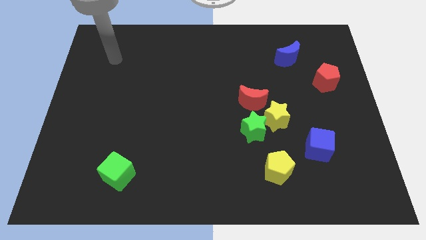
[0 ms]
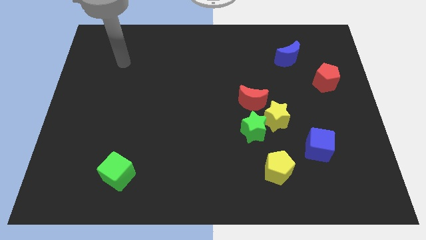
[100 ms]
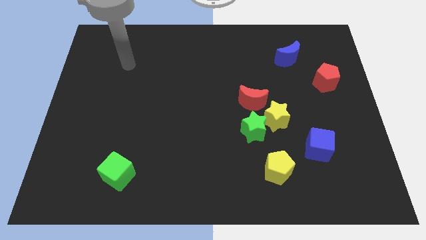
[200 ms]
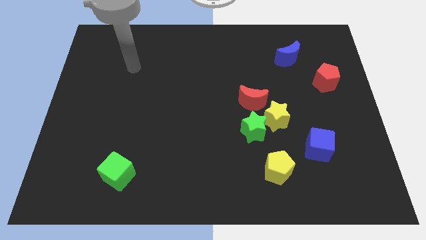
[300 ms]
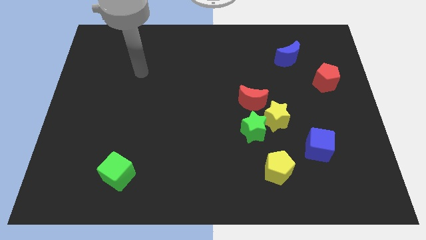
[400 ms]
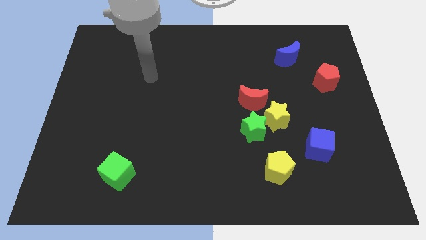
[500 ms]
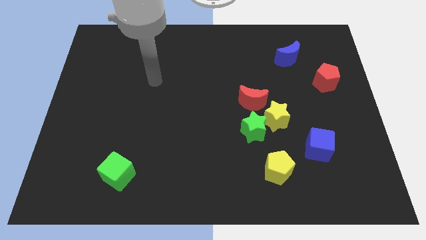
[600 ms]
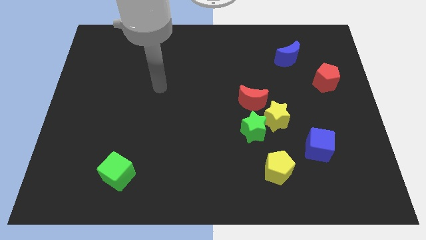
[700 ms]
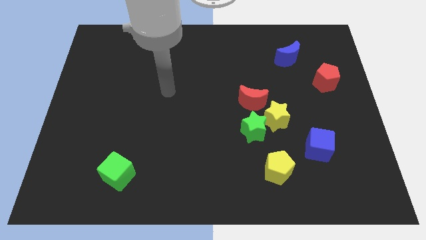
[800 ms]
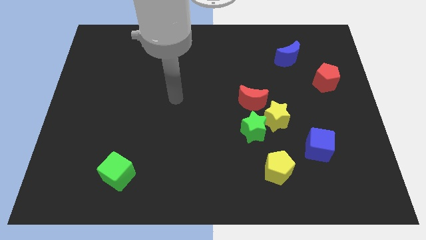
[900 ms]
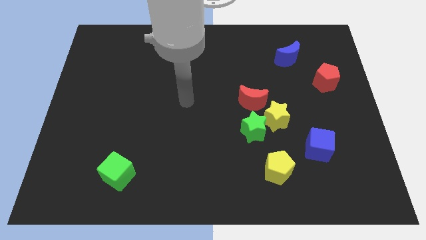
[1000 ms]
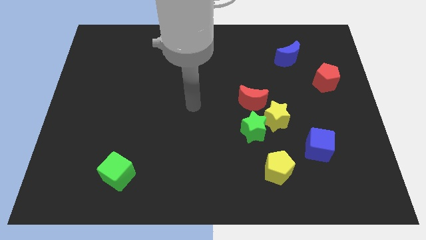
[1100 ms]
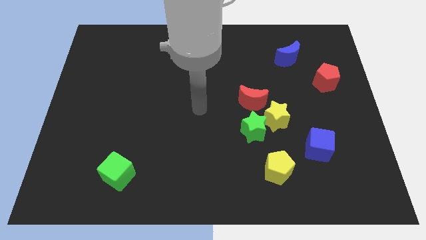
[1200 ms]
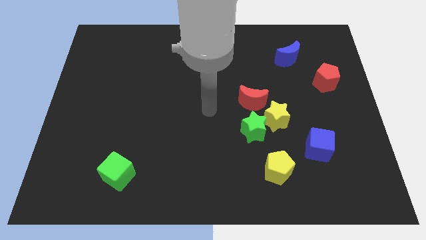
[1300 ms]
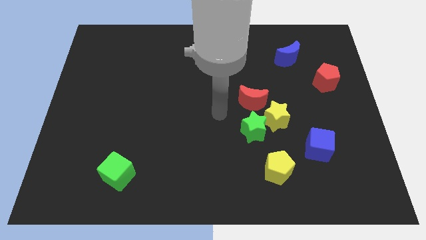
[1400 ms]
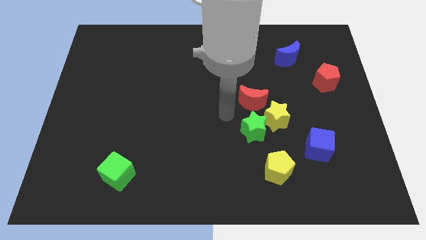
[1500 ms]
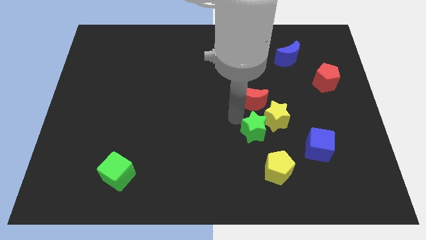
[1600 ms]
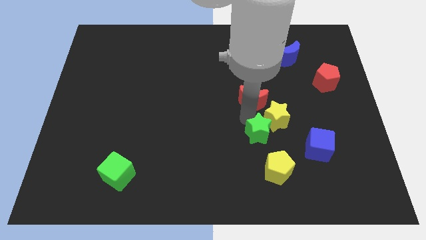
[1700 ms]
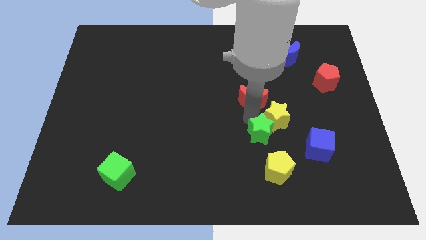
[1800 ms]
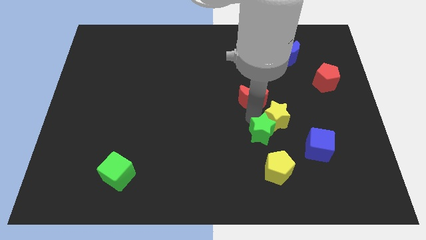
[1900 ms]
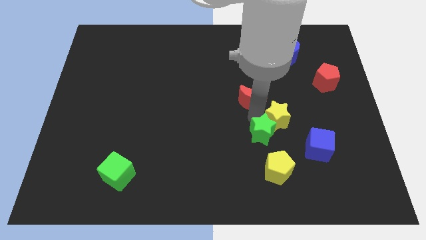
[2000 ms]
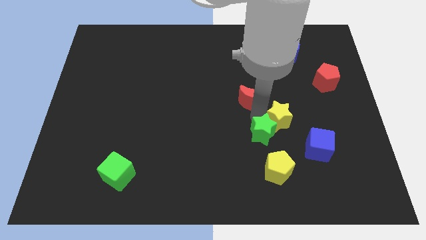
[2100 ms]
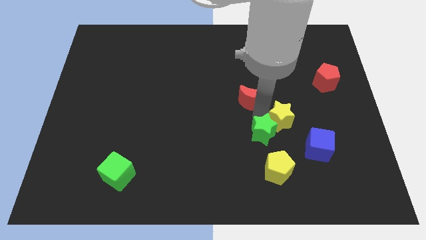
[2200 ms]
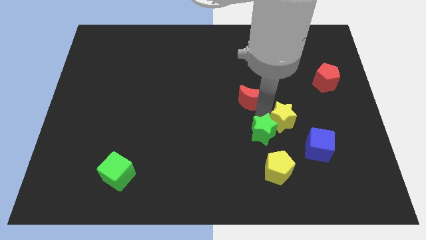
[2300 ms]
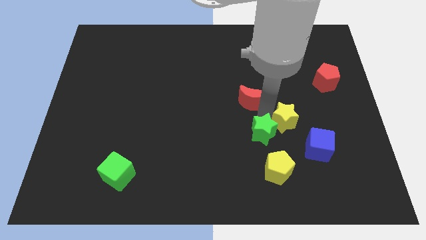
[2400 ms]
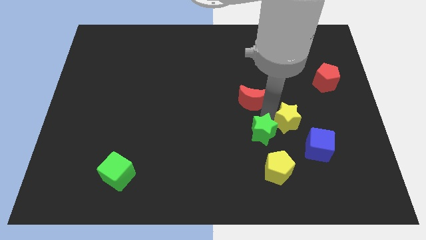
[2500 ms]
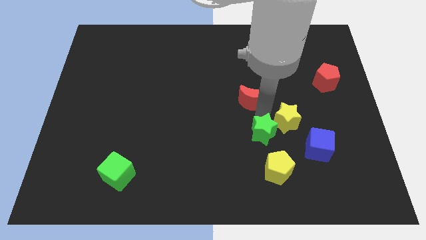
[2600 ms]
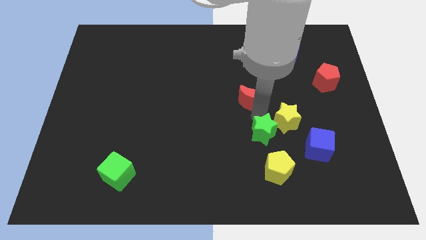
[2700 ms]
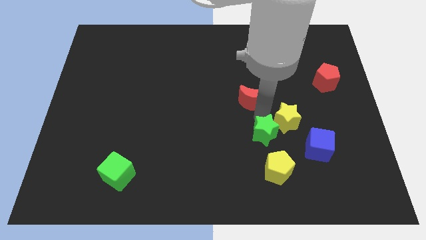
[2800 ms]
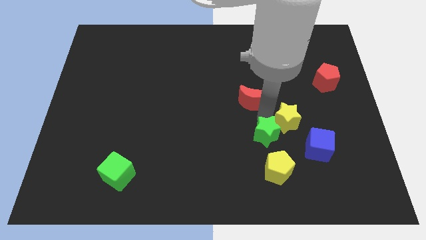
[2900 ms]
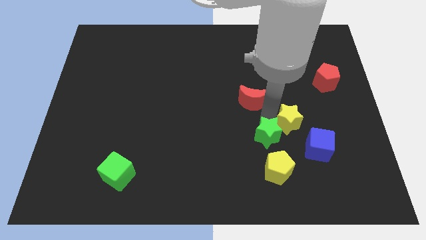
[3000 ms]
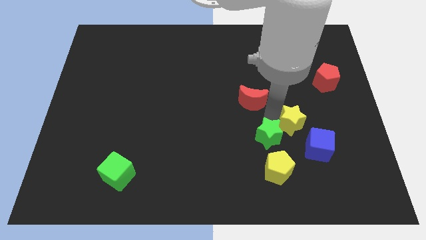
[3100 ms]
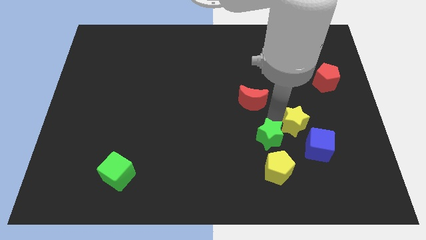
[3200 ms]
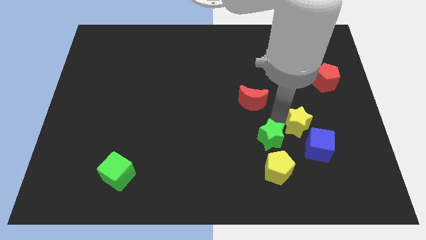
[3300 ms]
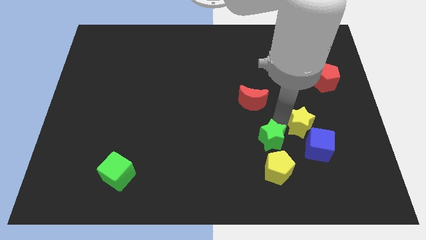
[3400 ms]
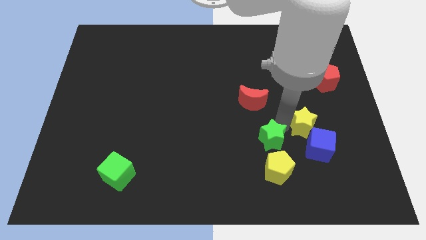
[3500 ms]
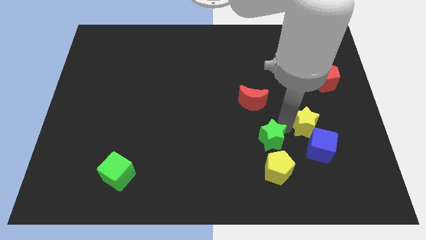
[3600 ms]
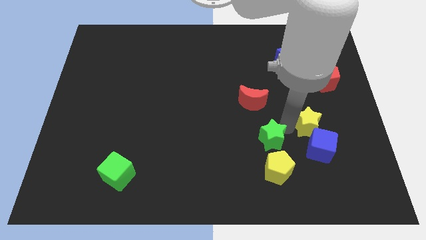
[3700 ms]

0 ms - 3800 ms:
separate the yellow star from the green star and red moon

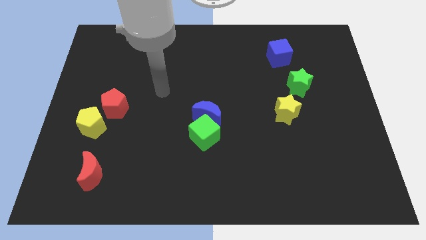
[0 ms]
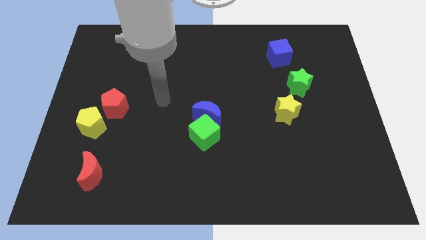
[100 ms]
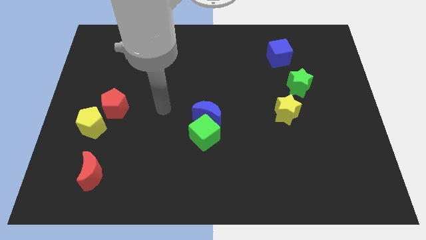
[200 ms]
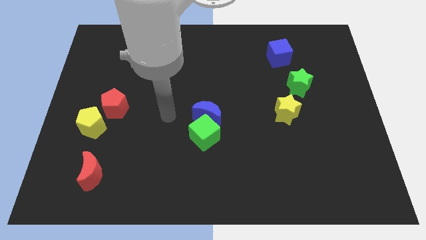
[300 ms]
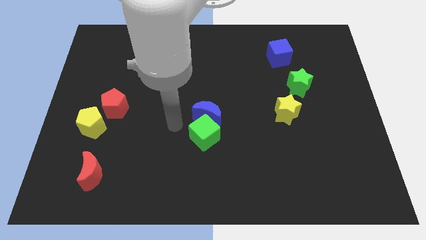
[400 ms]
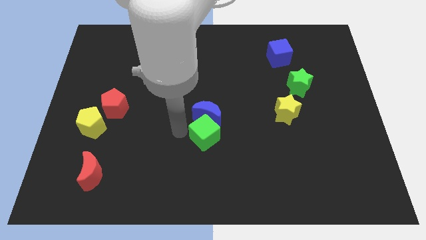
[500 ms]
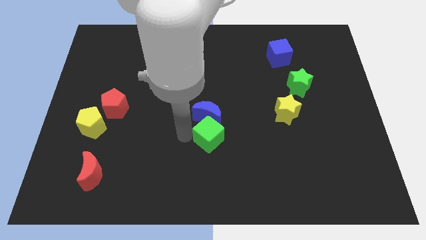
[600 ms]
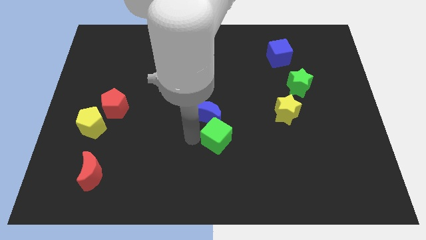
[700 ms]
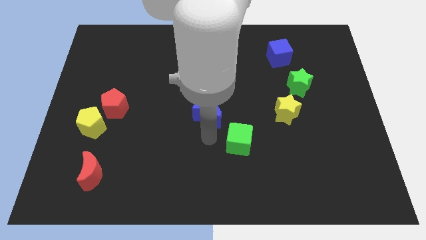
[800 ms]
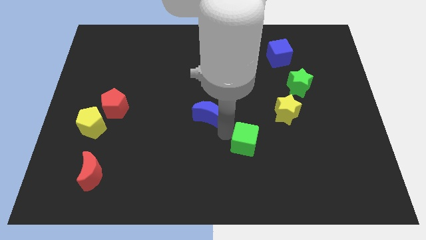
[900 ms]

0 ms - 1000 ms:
move the blue moon away from the green cube

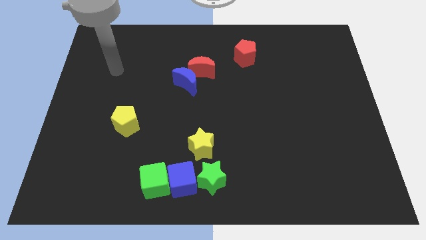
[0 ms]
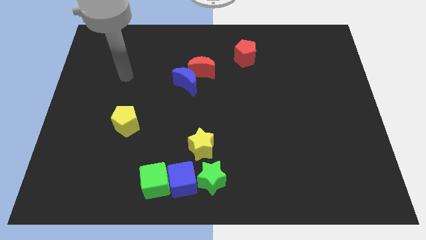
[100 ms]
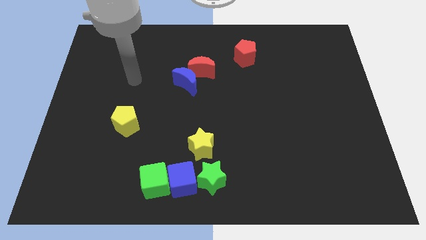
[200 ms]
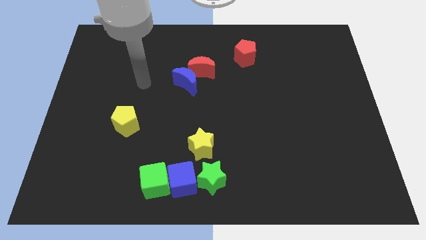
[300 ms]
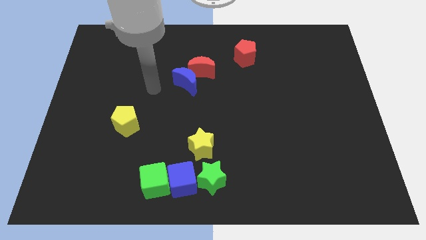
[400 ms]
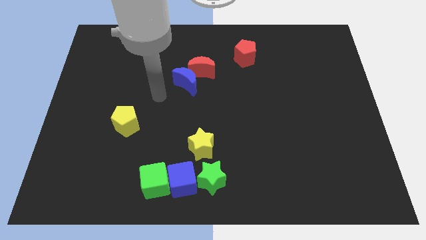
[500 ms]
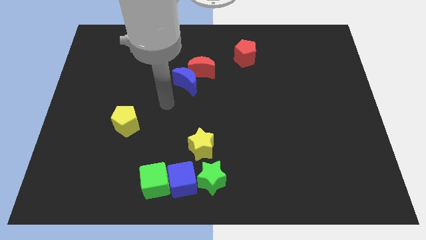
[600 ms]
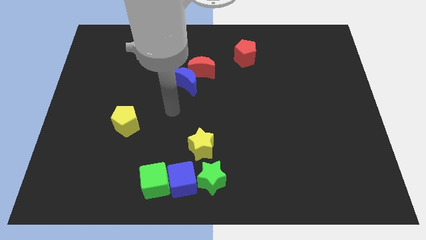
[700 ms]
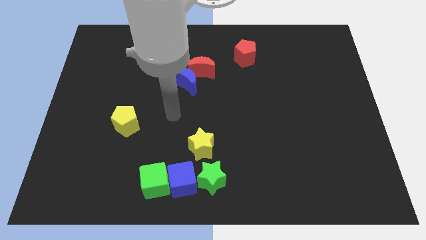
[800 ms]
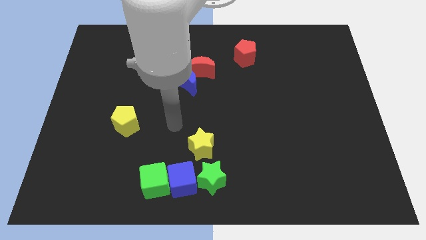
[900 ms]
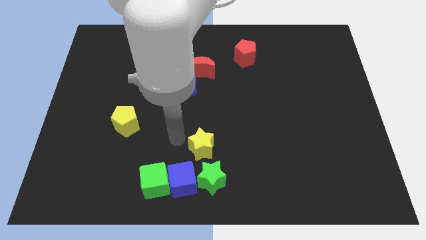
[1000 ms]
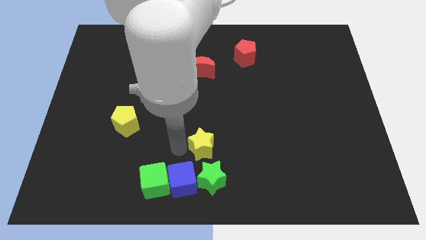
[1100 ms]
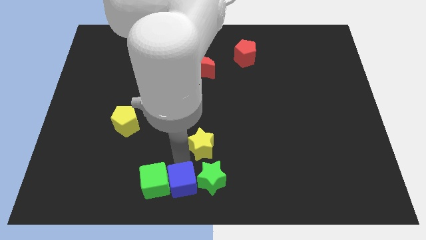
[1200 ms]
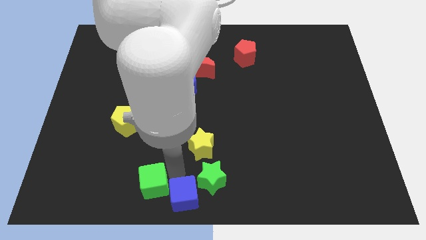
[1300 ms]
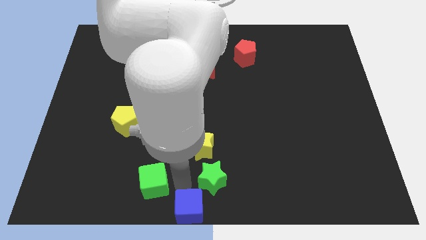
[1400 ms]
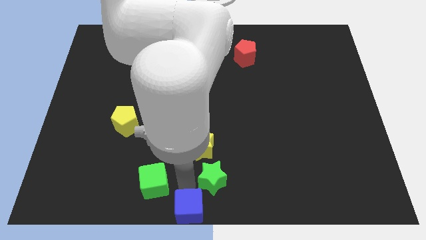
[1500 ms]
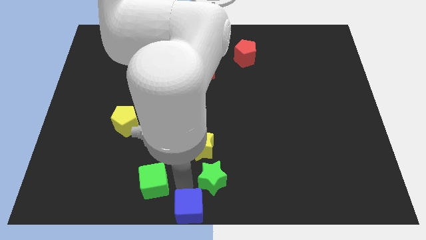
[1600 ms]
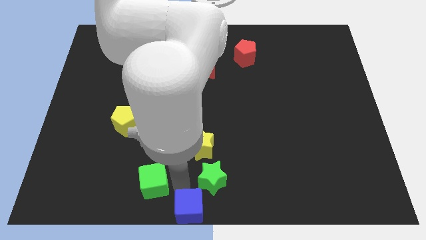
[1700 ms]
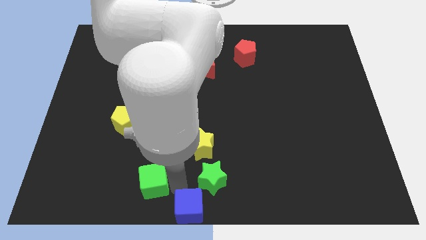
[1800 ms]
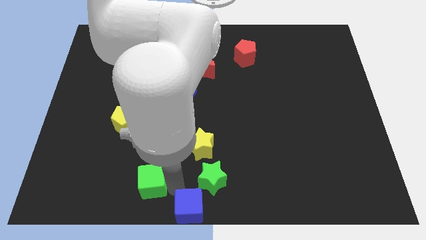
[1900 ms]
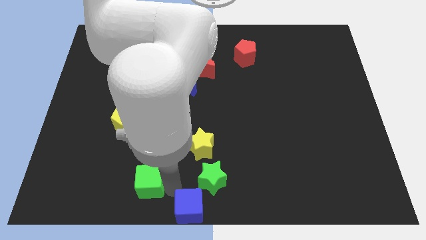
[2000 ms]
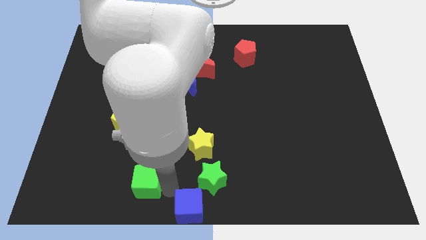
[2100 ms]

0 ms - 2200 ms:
move the green cube away from the blue cube

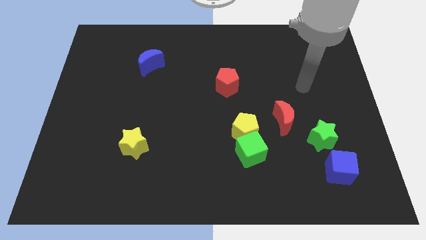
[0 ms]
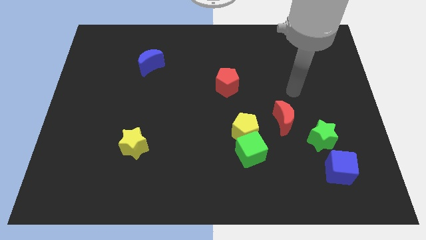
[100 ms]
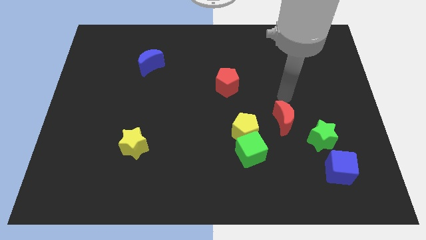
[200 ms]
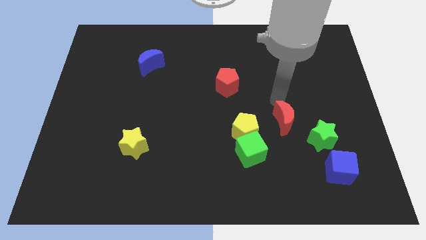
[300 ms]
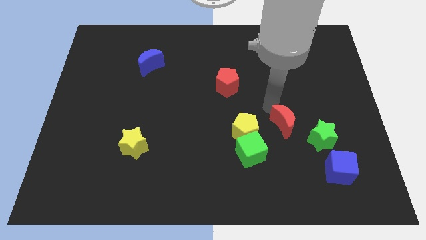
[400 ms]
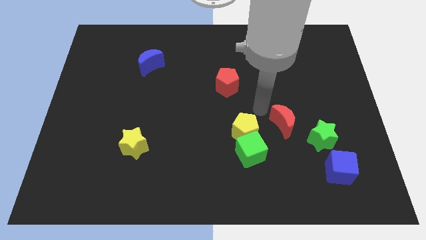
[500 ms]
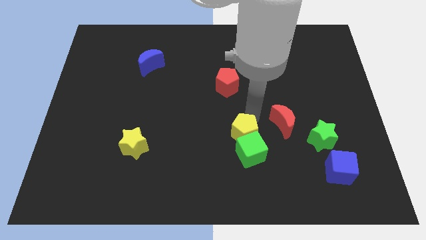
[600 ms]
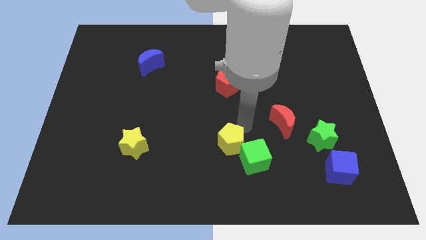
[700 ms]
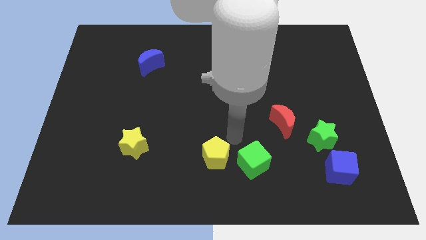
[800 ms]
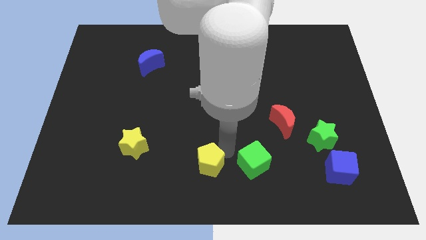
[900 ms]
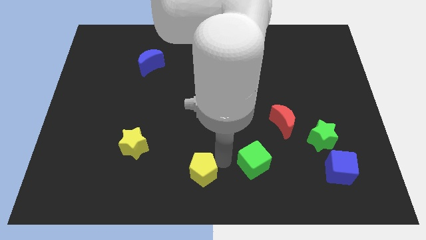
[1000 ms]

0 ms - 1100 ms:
move the green cube away from the yellow pentagon

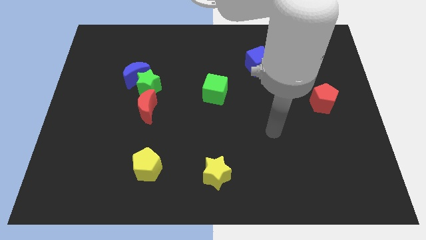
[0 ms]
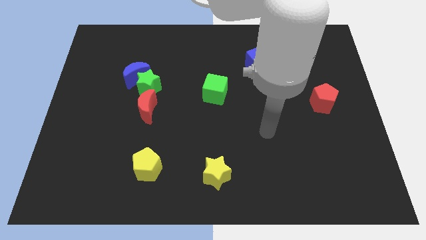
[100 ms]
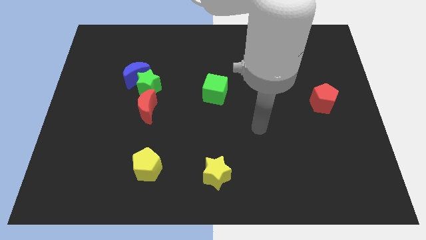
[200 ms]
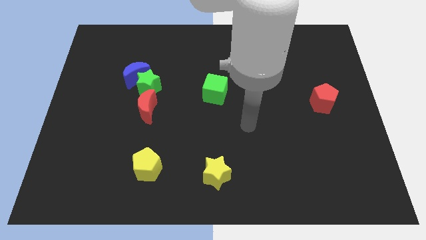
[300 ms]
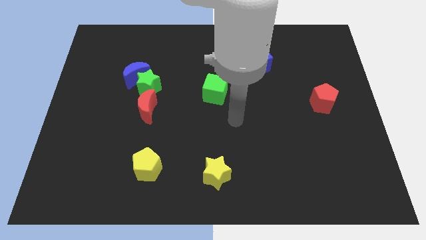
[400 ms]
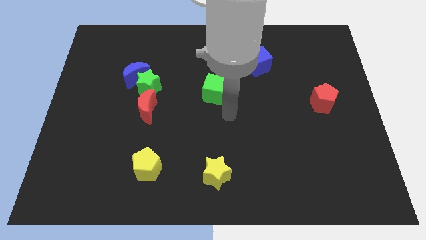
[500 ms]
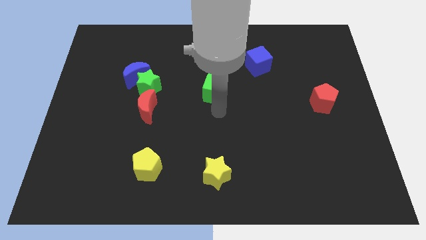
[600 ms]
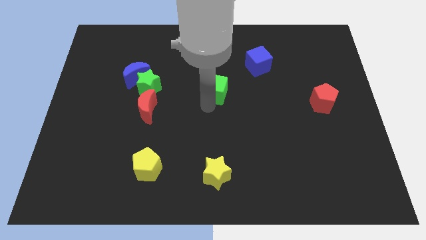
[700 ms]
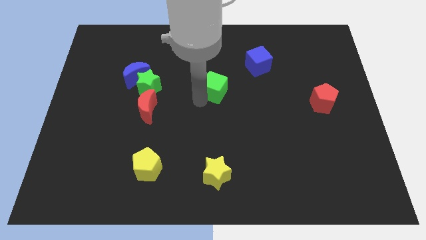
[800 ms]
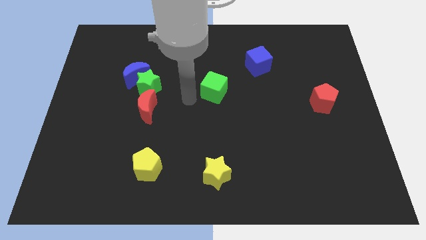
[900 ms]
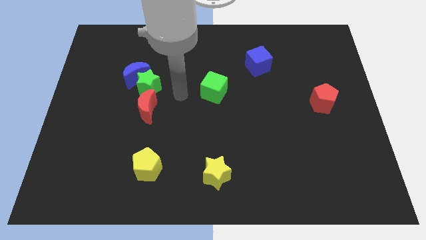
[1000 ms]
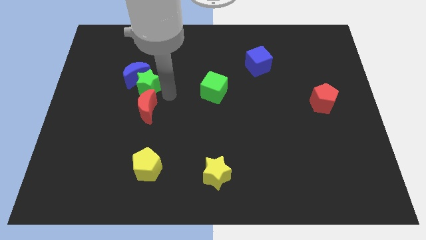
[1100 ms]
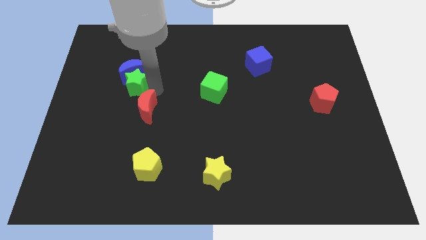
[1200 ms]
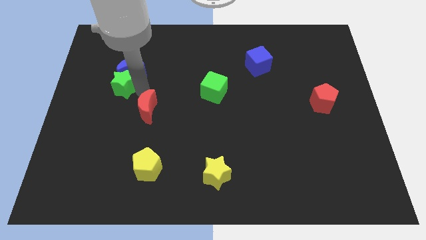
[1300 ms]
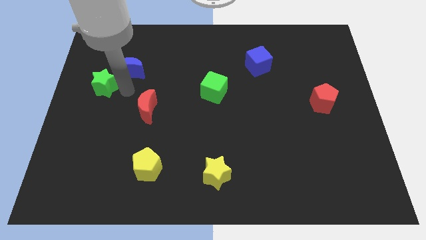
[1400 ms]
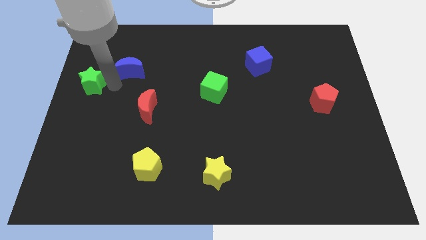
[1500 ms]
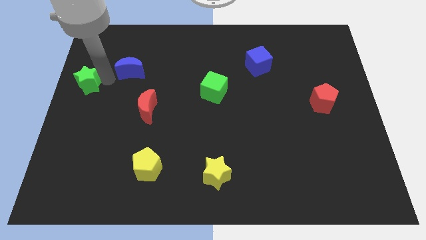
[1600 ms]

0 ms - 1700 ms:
separate the blue moon from the green star
